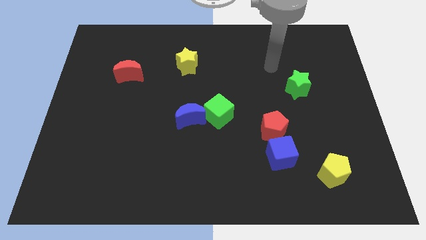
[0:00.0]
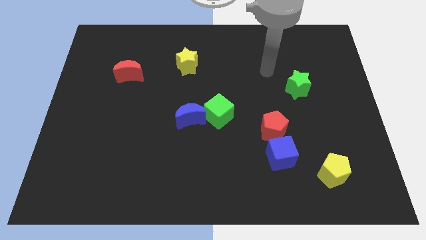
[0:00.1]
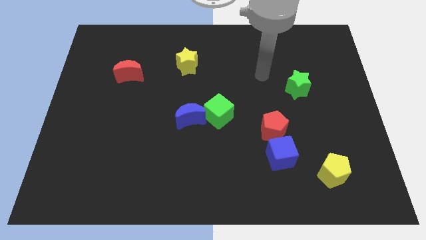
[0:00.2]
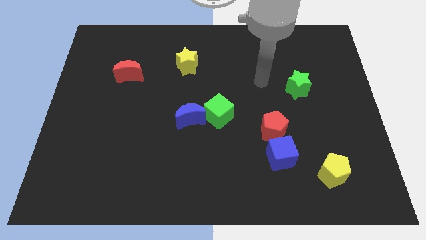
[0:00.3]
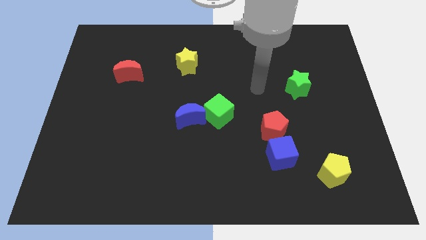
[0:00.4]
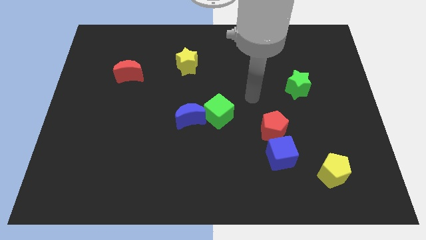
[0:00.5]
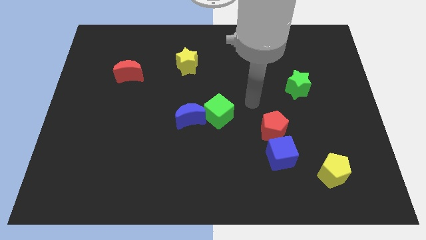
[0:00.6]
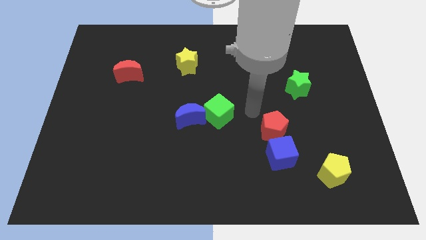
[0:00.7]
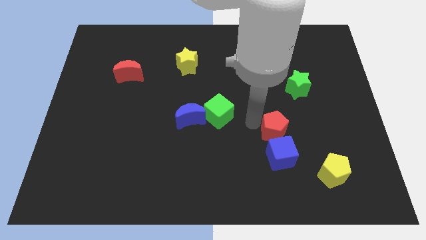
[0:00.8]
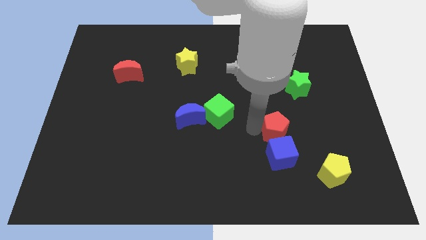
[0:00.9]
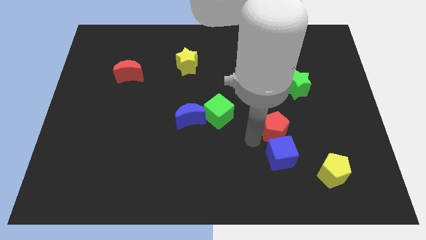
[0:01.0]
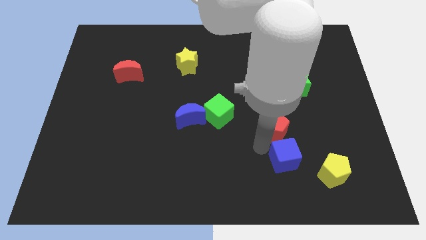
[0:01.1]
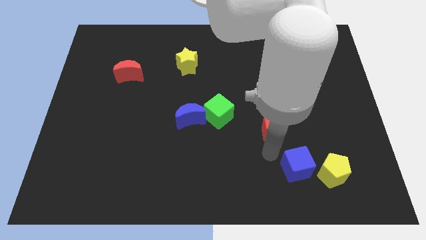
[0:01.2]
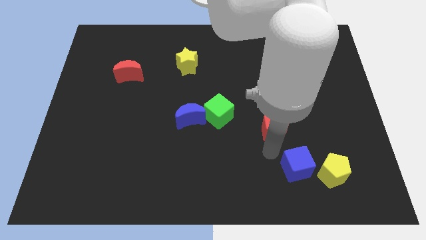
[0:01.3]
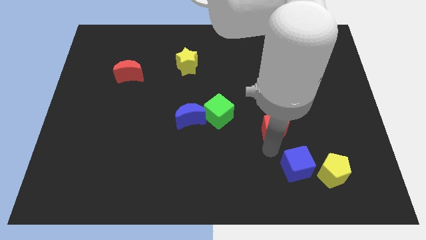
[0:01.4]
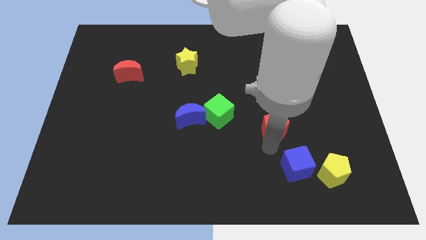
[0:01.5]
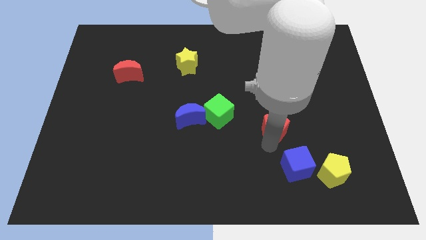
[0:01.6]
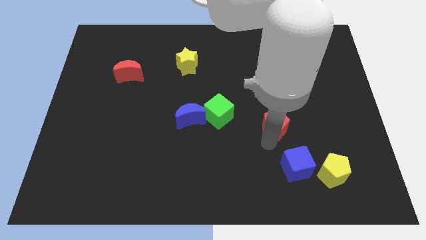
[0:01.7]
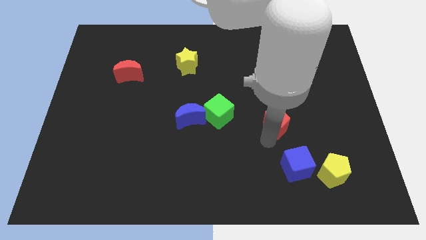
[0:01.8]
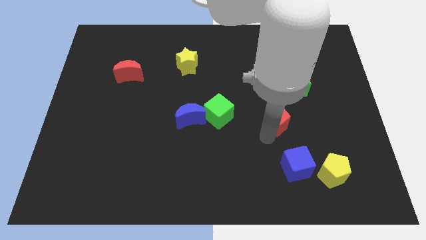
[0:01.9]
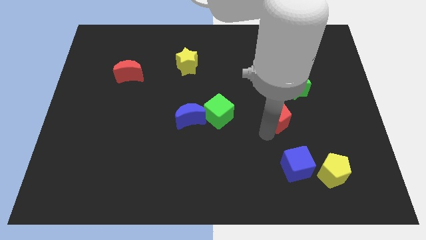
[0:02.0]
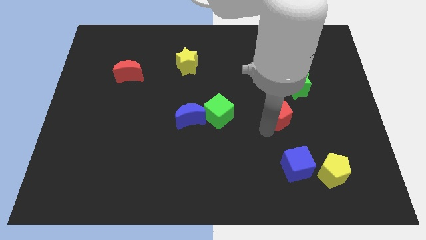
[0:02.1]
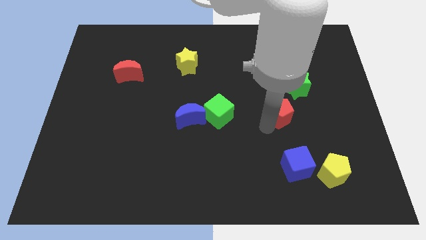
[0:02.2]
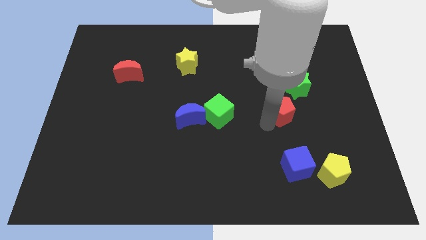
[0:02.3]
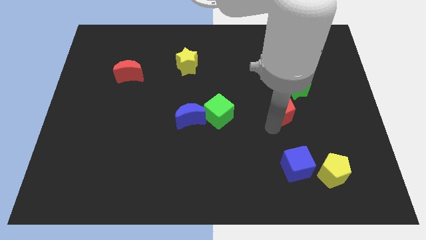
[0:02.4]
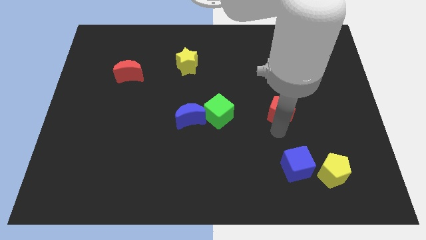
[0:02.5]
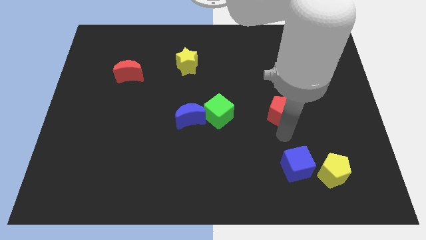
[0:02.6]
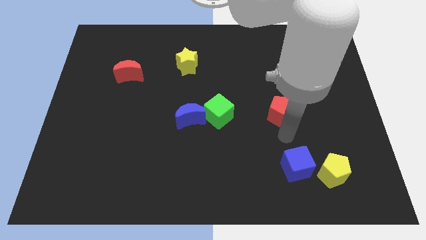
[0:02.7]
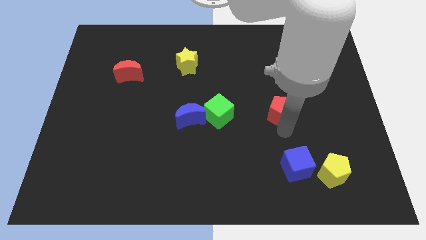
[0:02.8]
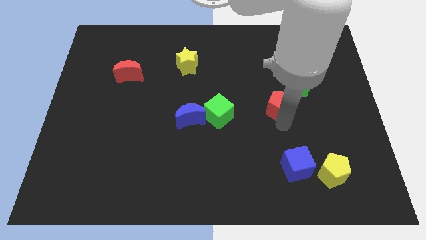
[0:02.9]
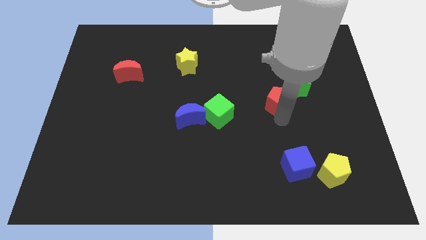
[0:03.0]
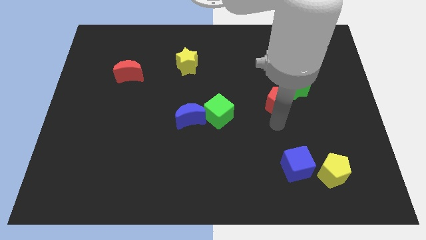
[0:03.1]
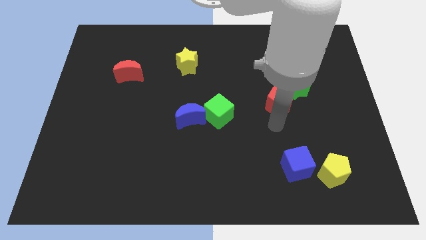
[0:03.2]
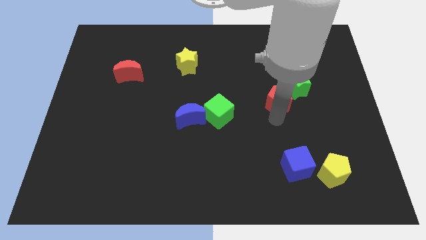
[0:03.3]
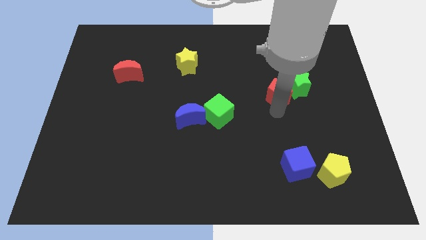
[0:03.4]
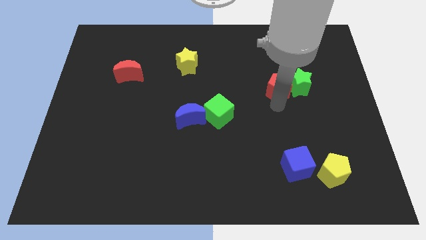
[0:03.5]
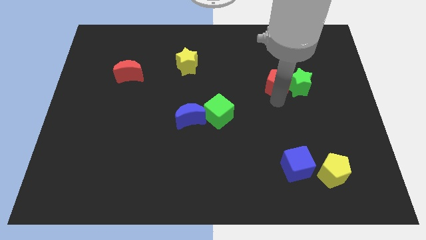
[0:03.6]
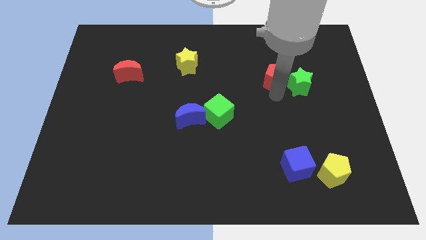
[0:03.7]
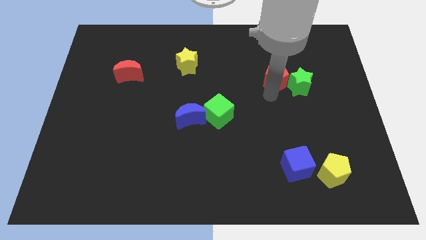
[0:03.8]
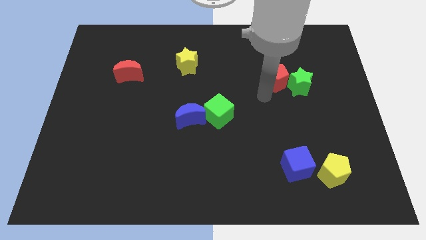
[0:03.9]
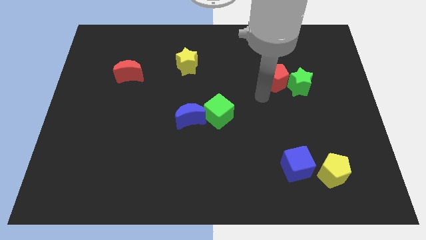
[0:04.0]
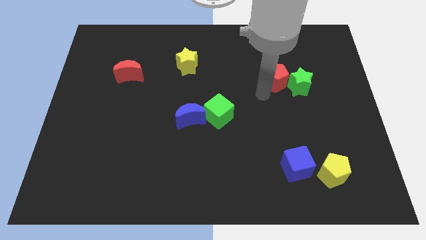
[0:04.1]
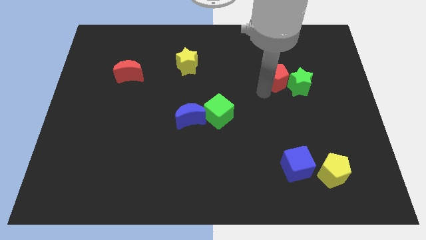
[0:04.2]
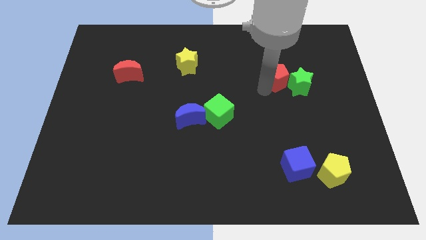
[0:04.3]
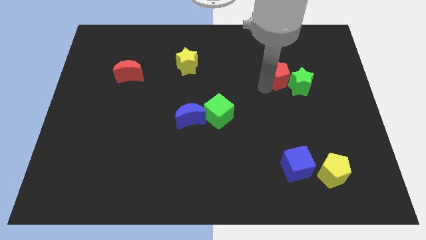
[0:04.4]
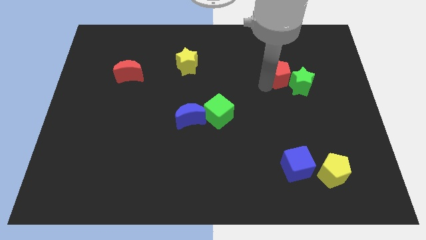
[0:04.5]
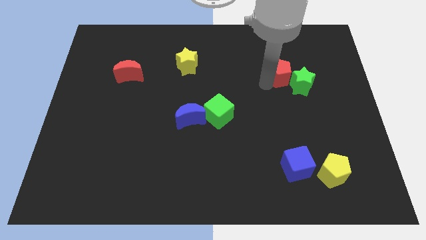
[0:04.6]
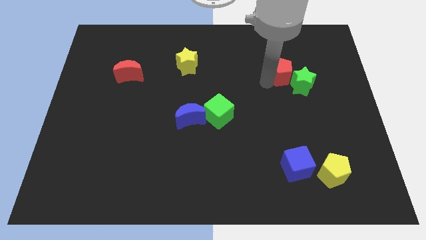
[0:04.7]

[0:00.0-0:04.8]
move the red pentagon to the top side of the green star

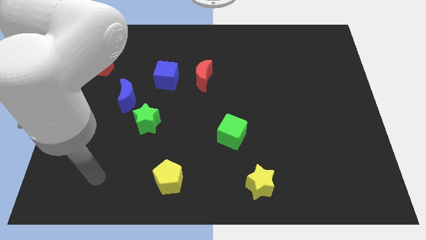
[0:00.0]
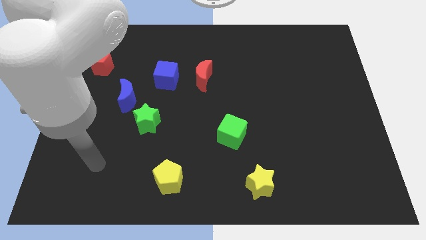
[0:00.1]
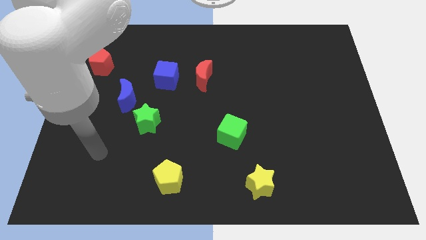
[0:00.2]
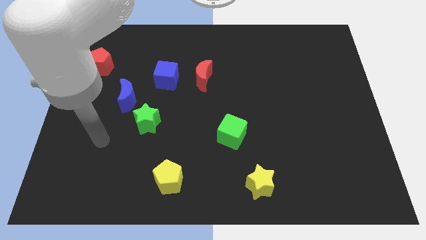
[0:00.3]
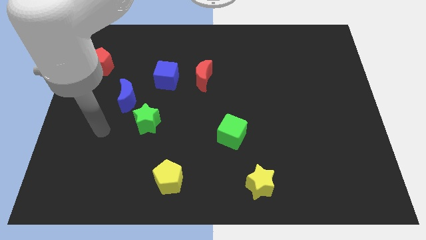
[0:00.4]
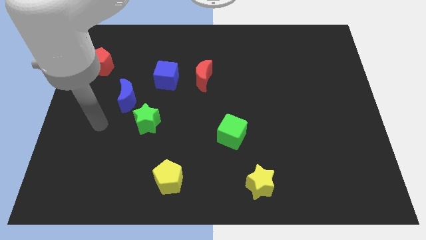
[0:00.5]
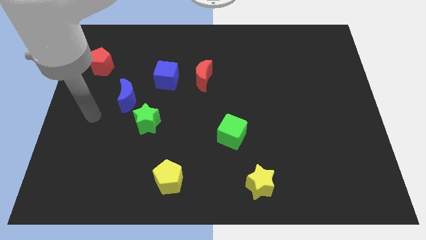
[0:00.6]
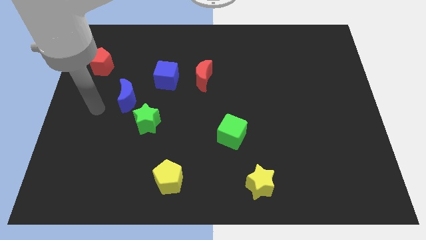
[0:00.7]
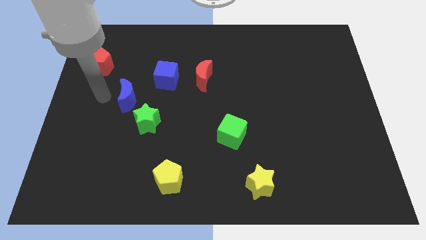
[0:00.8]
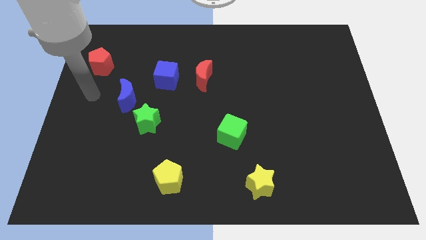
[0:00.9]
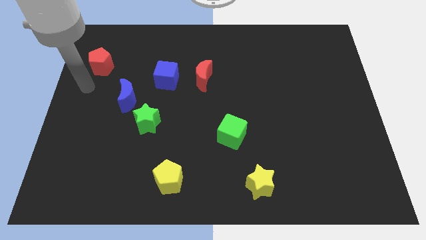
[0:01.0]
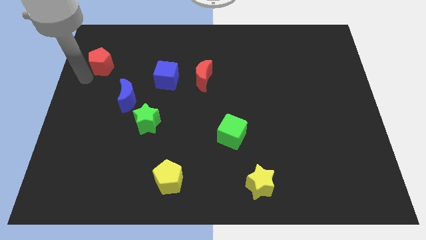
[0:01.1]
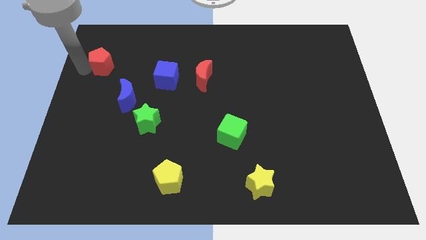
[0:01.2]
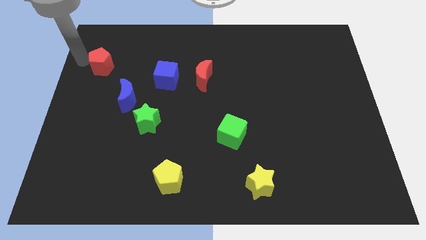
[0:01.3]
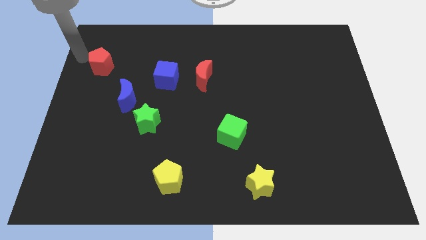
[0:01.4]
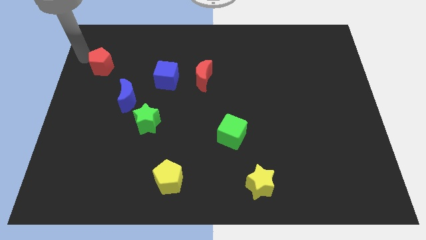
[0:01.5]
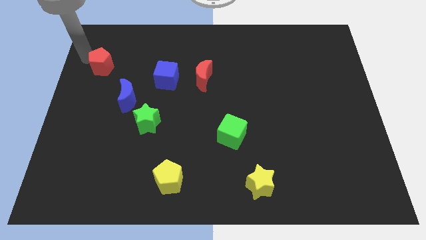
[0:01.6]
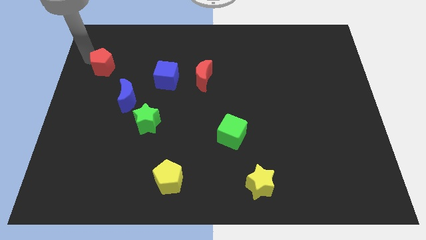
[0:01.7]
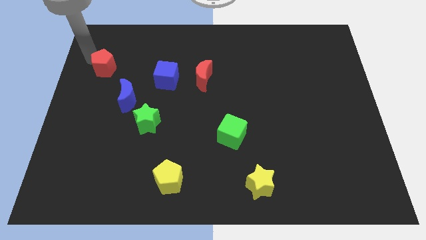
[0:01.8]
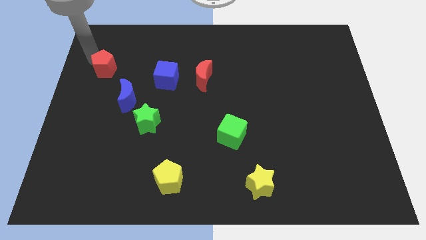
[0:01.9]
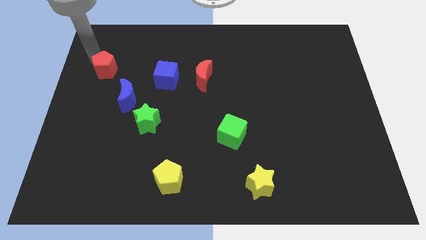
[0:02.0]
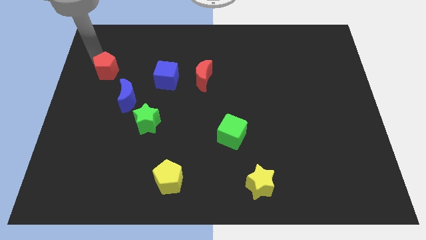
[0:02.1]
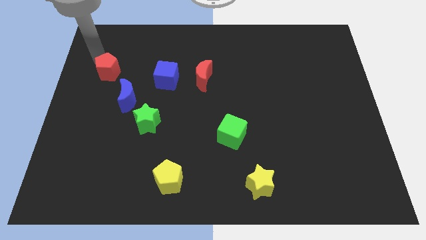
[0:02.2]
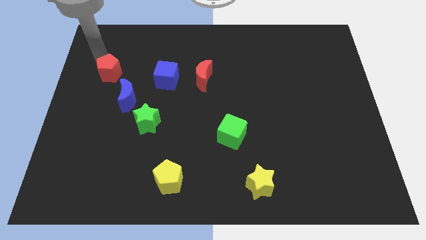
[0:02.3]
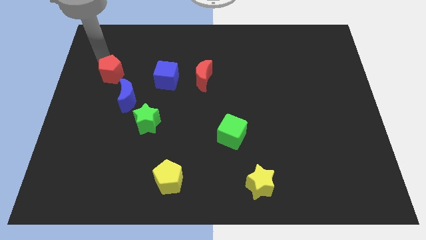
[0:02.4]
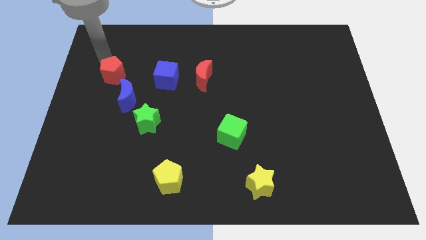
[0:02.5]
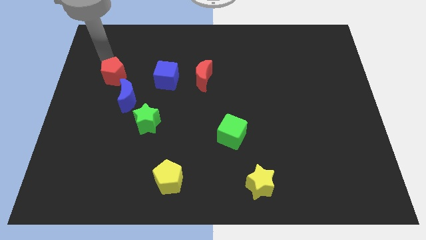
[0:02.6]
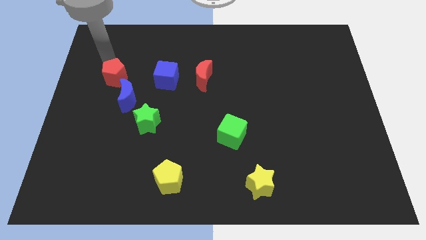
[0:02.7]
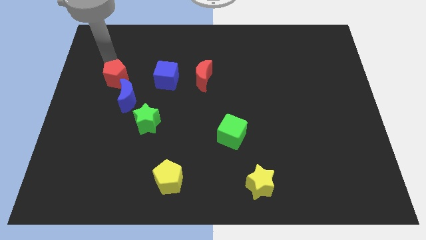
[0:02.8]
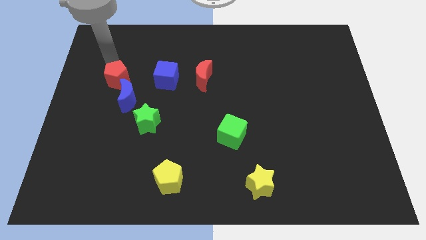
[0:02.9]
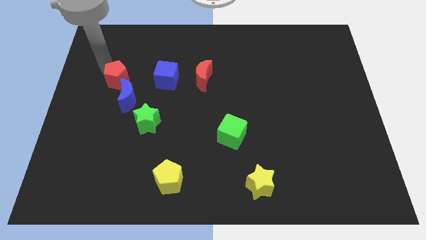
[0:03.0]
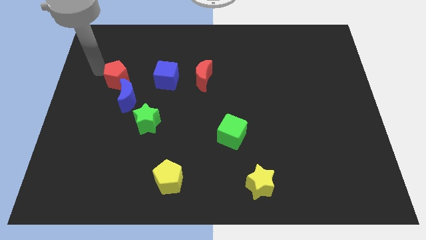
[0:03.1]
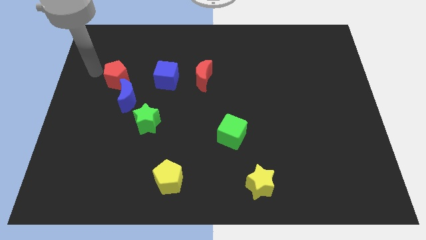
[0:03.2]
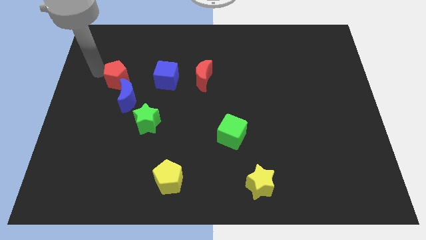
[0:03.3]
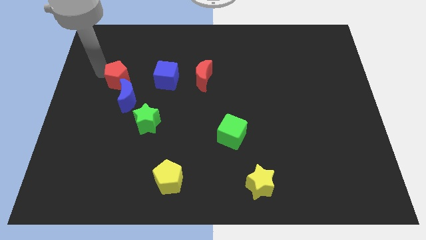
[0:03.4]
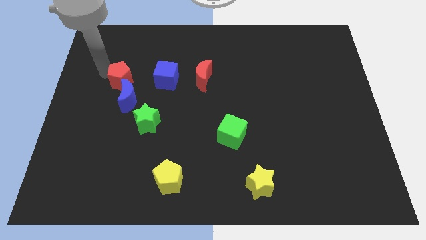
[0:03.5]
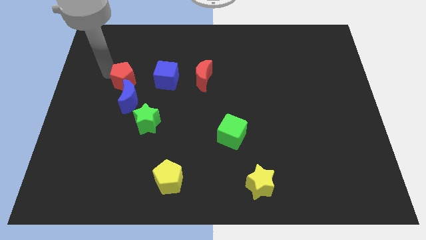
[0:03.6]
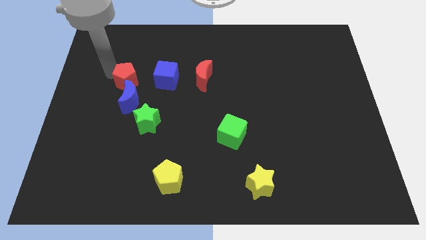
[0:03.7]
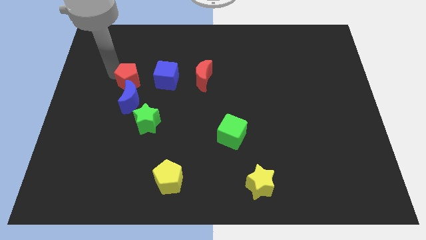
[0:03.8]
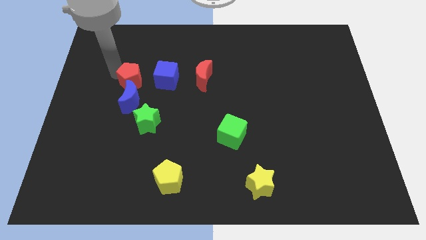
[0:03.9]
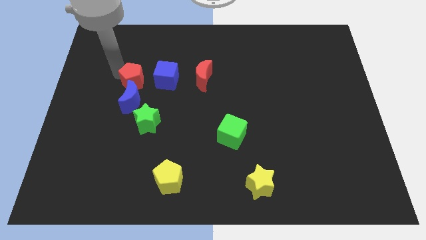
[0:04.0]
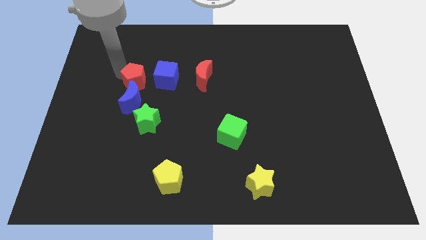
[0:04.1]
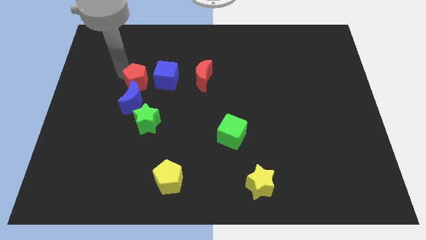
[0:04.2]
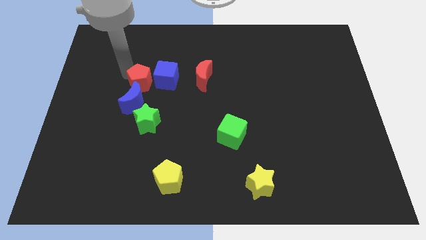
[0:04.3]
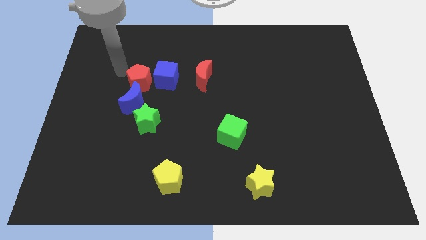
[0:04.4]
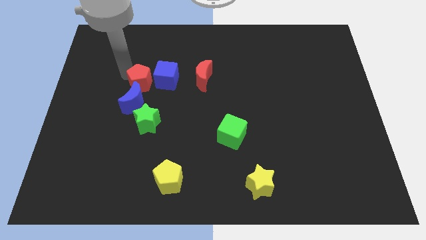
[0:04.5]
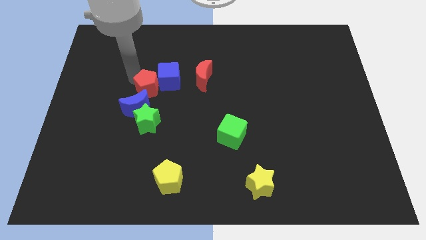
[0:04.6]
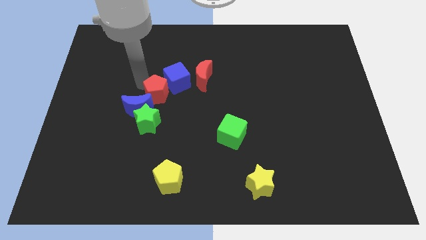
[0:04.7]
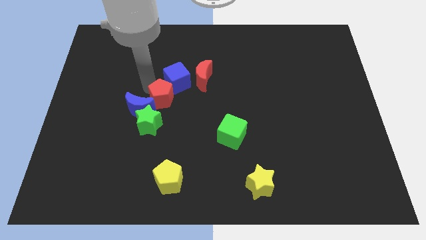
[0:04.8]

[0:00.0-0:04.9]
slide the red pentagon to the right side of the blue moon
